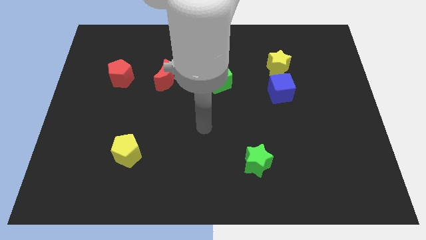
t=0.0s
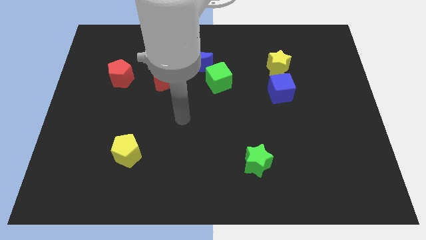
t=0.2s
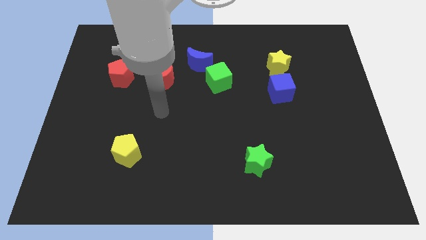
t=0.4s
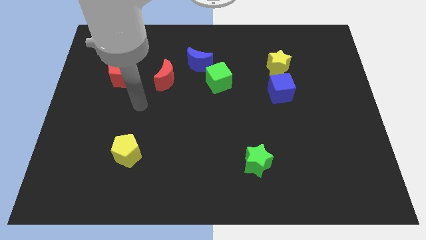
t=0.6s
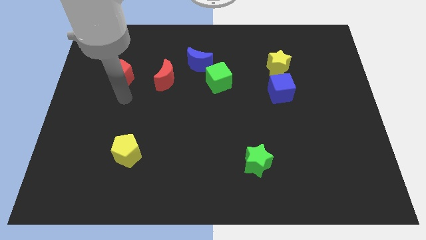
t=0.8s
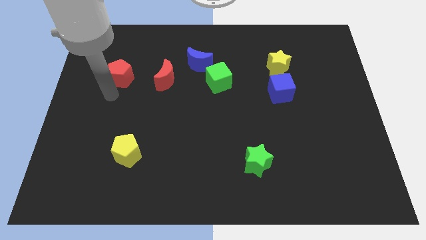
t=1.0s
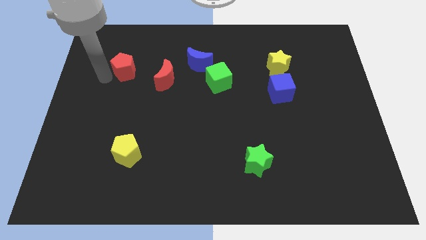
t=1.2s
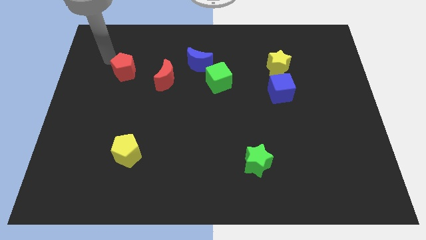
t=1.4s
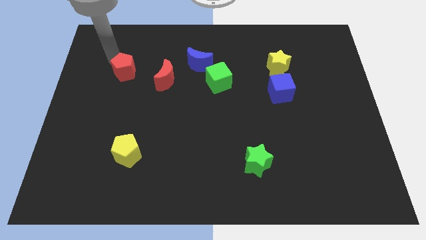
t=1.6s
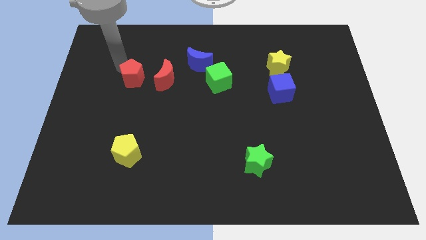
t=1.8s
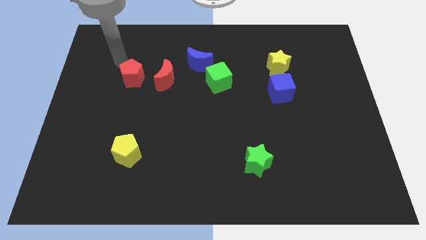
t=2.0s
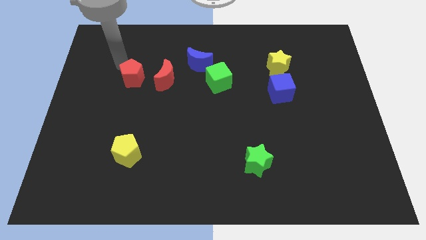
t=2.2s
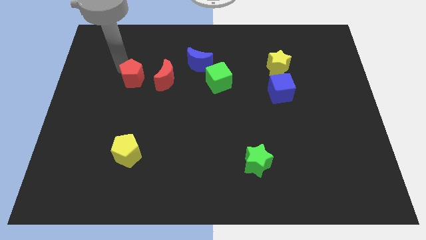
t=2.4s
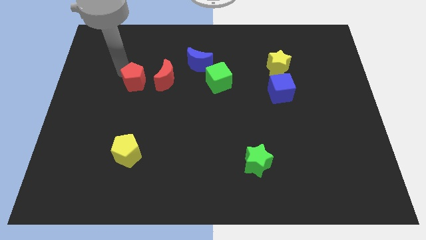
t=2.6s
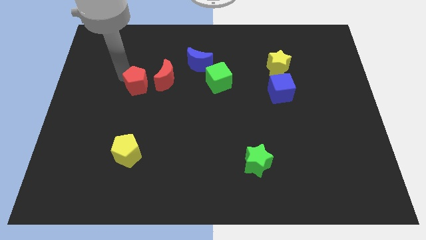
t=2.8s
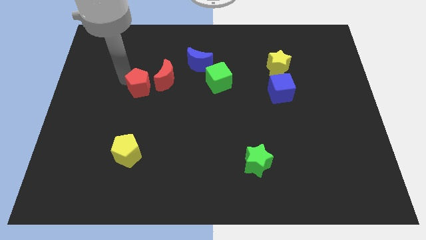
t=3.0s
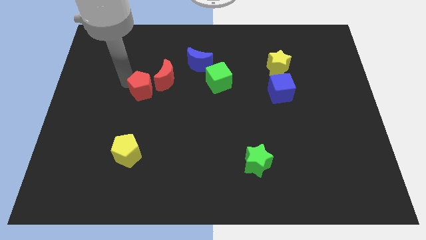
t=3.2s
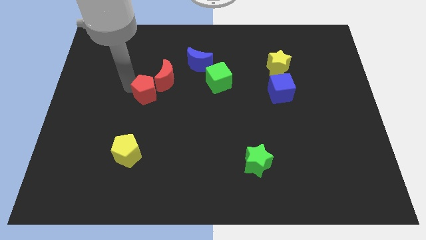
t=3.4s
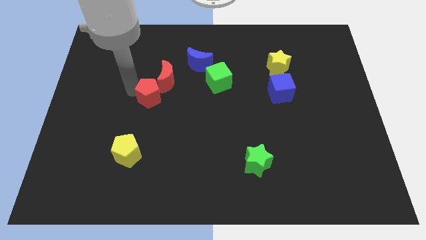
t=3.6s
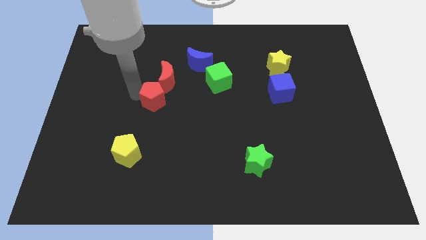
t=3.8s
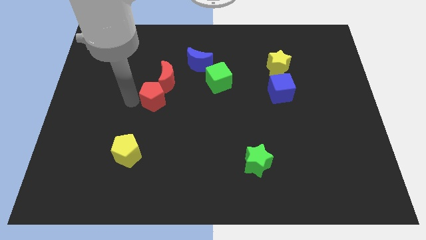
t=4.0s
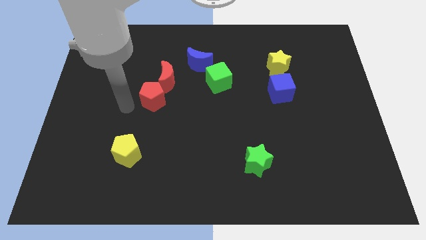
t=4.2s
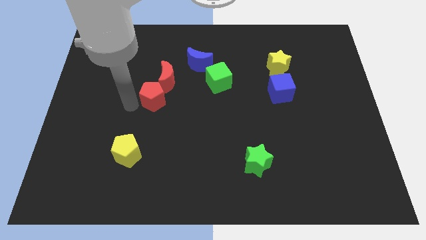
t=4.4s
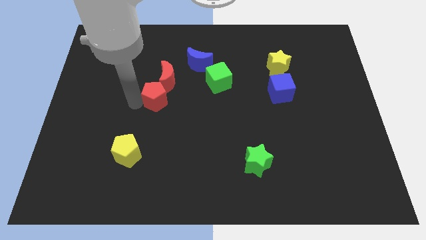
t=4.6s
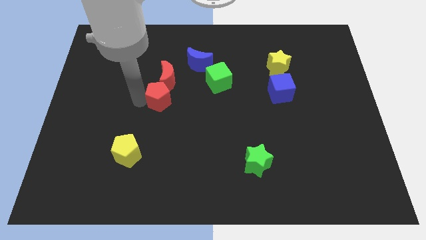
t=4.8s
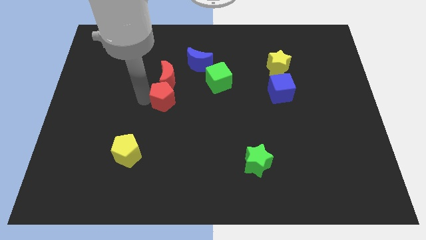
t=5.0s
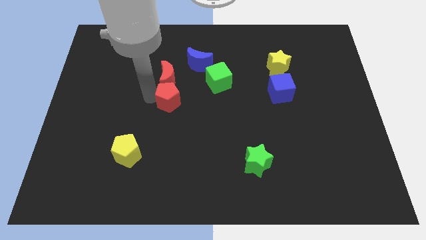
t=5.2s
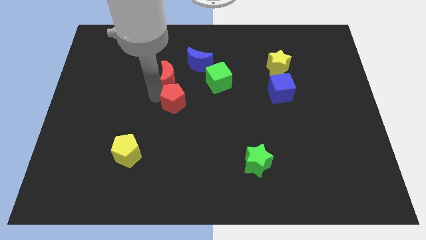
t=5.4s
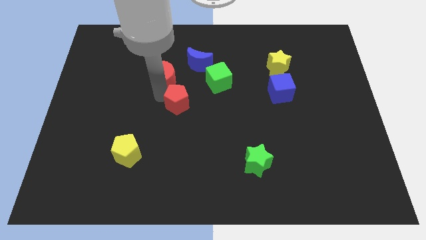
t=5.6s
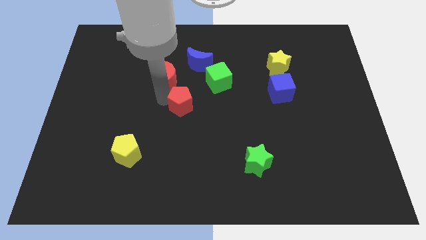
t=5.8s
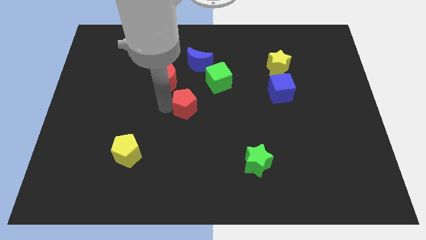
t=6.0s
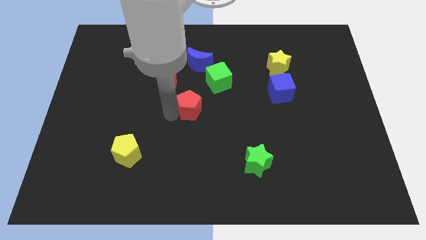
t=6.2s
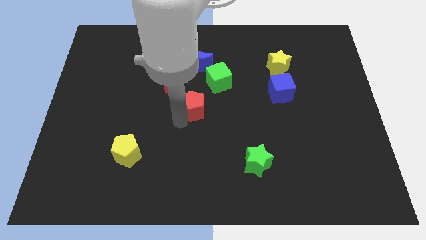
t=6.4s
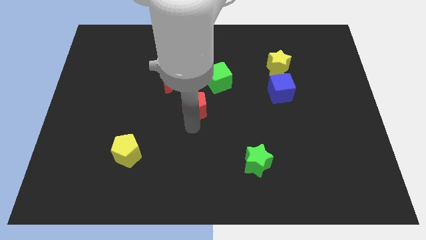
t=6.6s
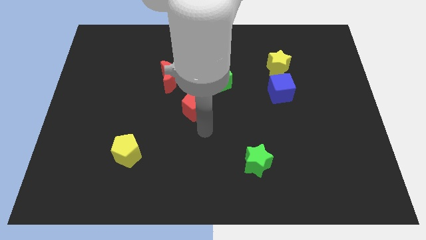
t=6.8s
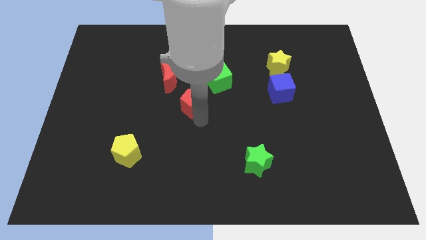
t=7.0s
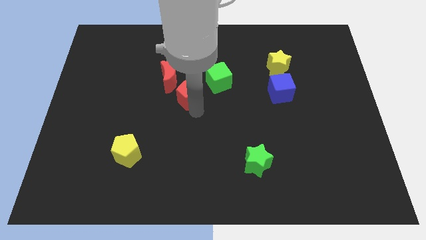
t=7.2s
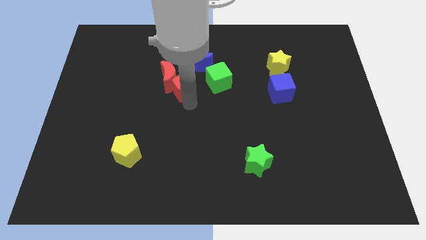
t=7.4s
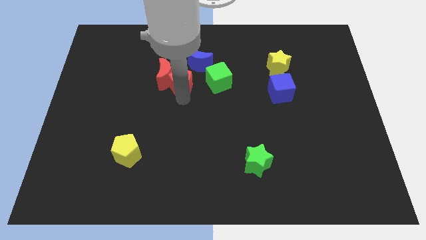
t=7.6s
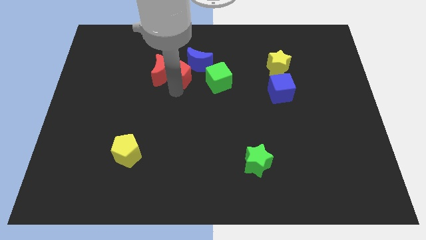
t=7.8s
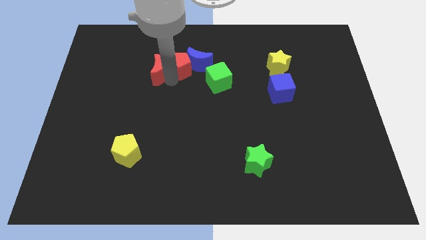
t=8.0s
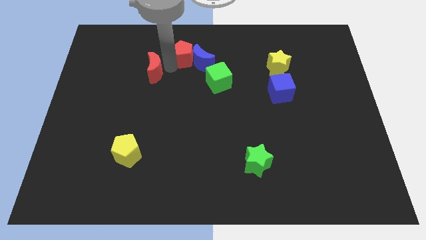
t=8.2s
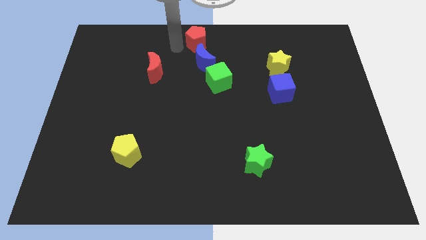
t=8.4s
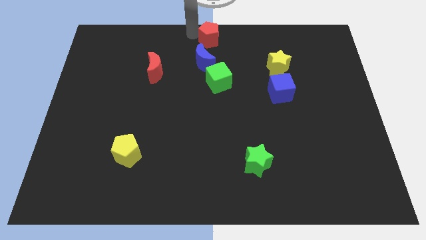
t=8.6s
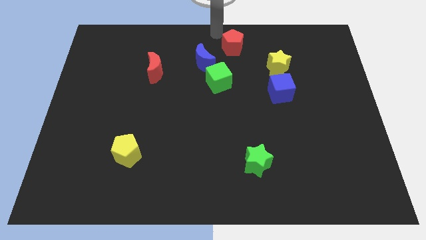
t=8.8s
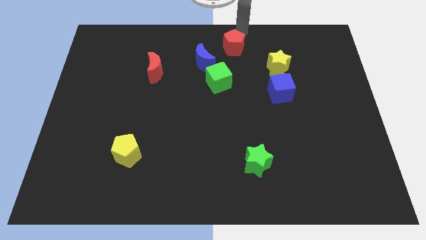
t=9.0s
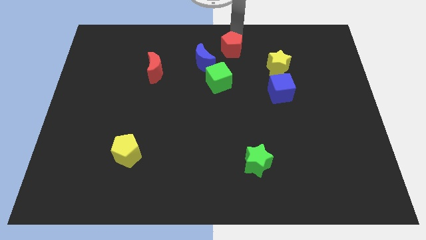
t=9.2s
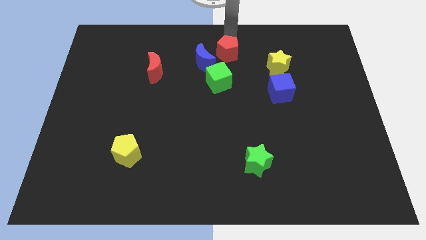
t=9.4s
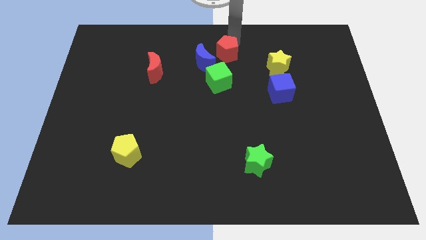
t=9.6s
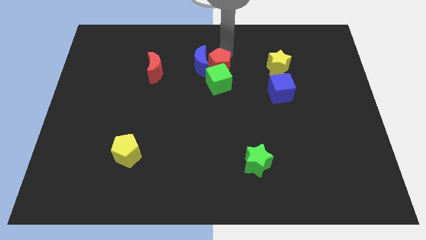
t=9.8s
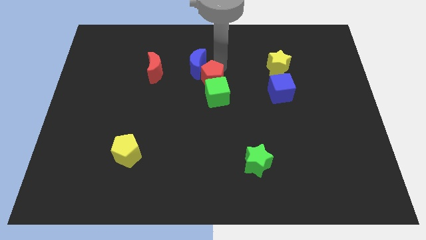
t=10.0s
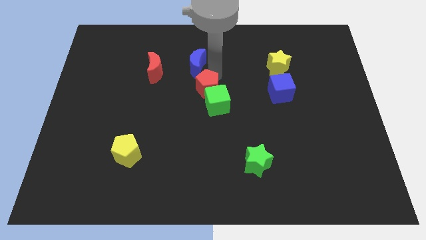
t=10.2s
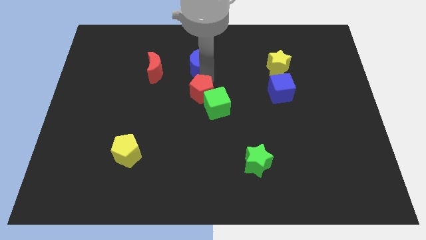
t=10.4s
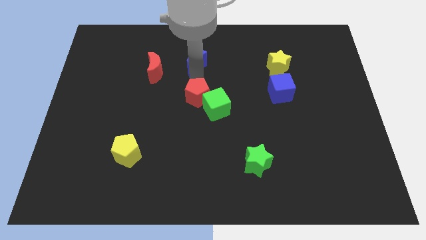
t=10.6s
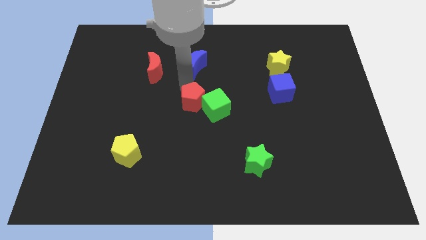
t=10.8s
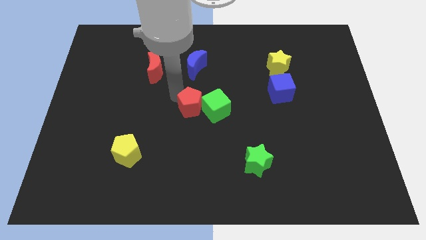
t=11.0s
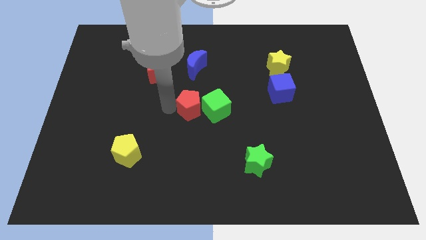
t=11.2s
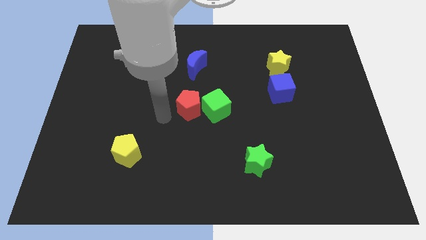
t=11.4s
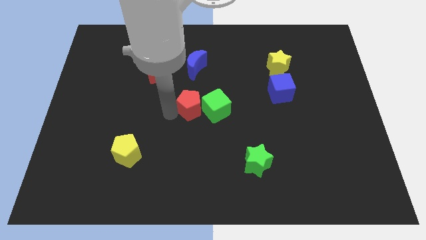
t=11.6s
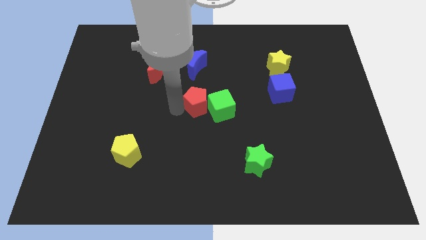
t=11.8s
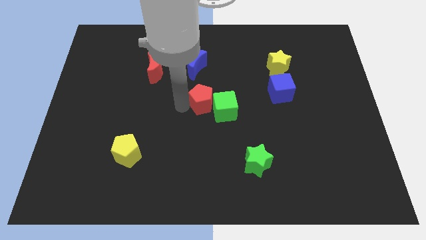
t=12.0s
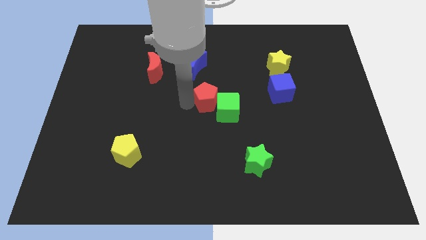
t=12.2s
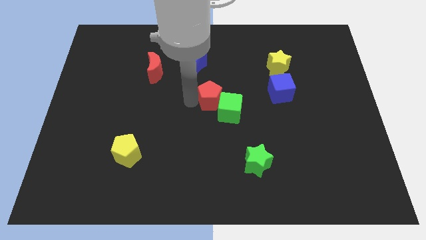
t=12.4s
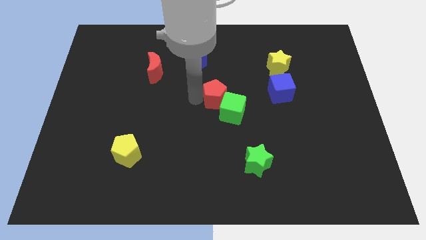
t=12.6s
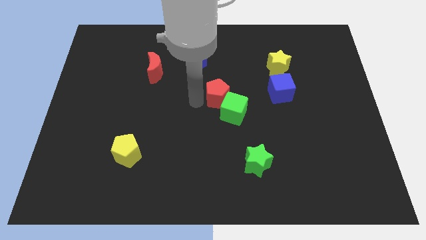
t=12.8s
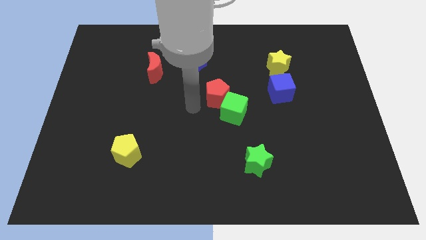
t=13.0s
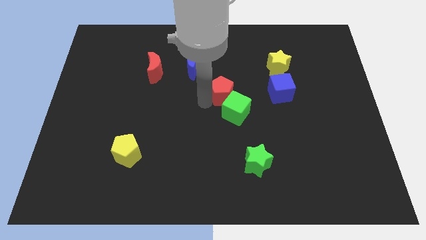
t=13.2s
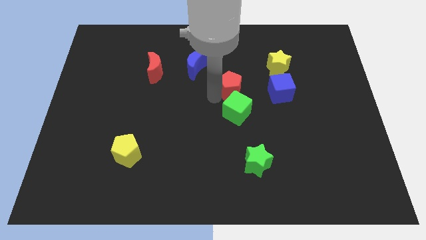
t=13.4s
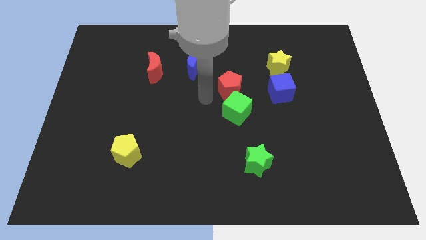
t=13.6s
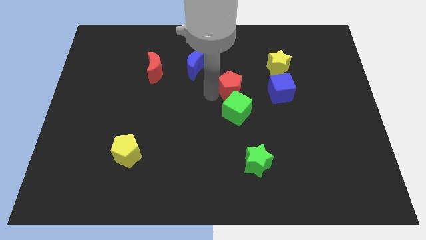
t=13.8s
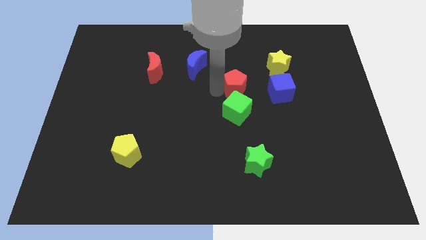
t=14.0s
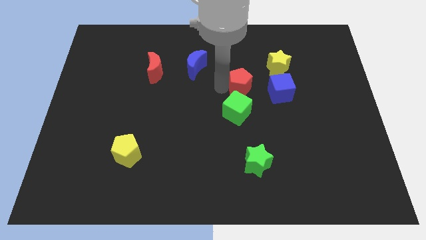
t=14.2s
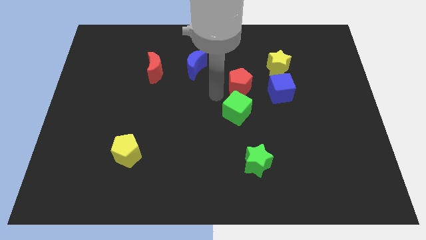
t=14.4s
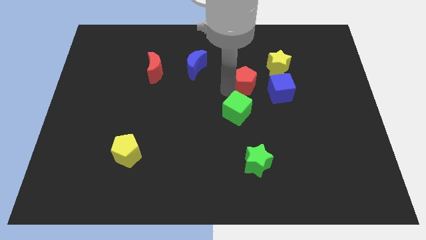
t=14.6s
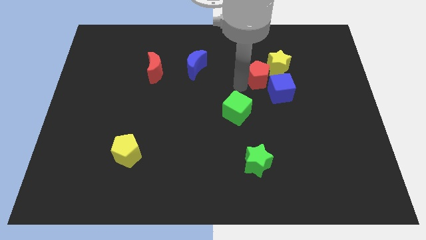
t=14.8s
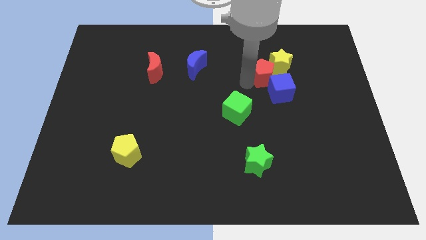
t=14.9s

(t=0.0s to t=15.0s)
put the red pentagon next to the yellow star
